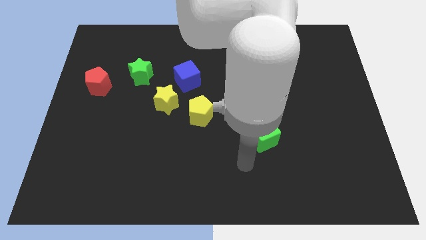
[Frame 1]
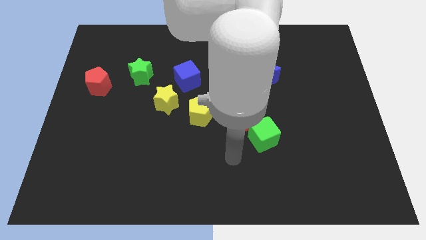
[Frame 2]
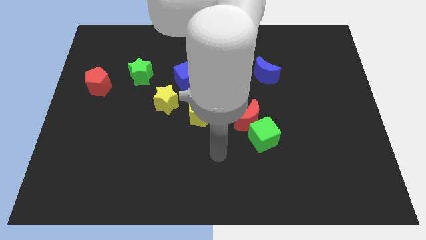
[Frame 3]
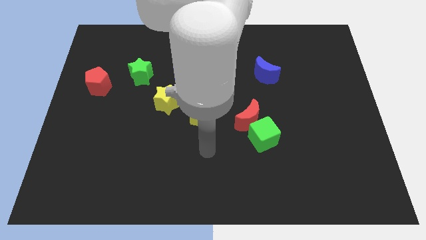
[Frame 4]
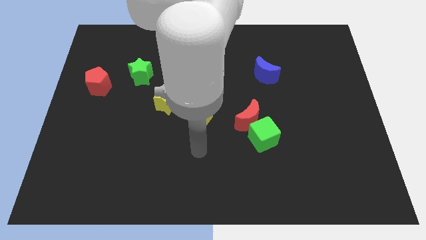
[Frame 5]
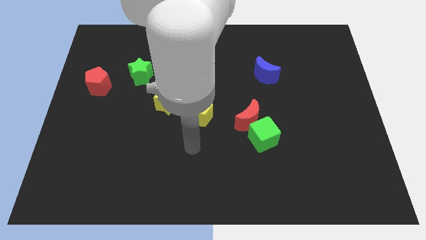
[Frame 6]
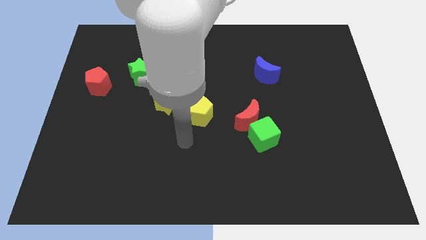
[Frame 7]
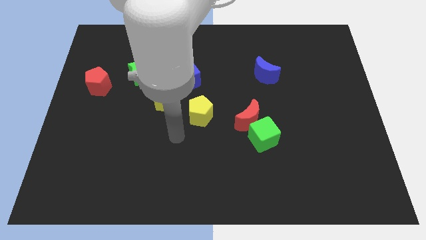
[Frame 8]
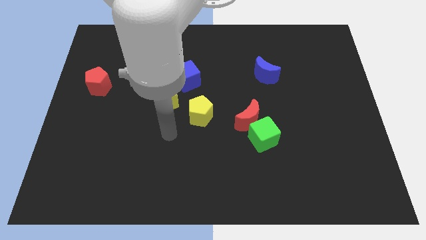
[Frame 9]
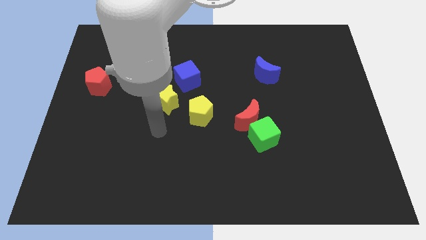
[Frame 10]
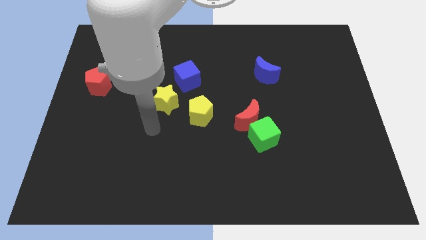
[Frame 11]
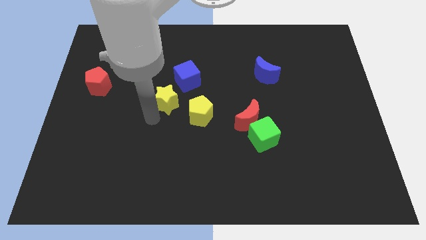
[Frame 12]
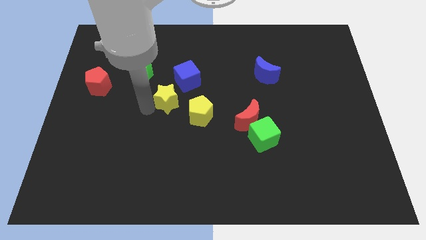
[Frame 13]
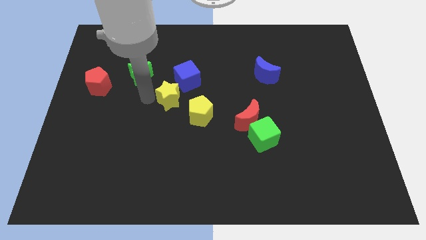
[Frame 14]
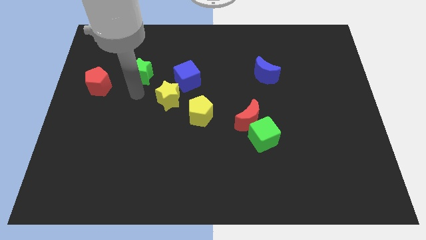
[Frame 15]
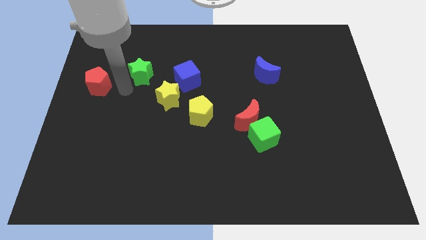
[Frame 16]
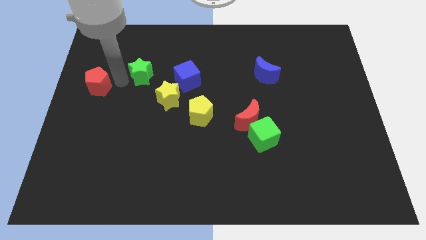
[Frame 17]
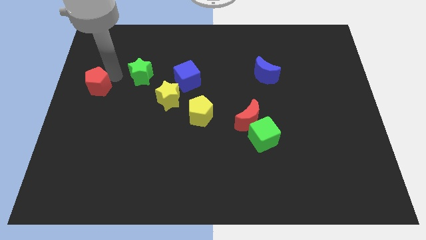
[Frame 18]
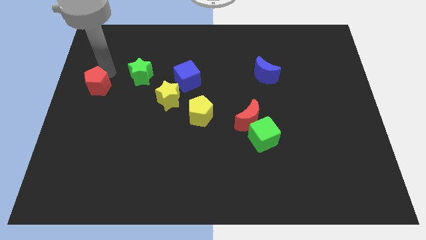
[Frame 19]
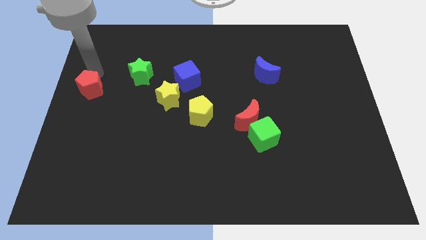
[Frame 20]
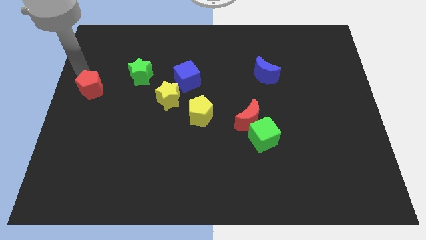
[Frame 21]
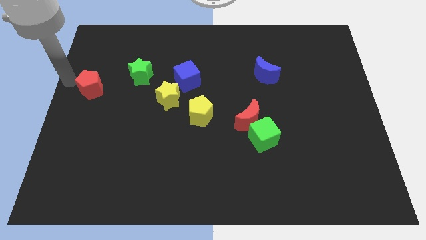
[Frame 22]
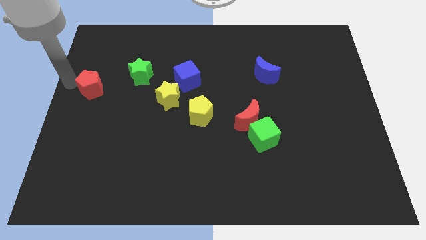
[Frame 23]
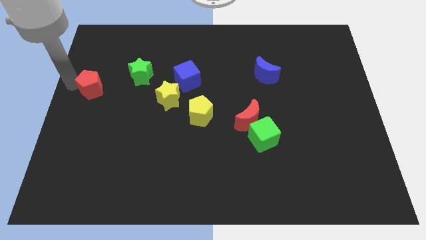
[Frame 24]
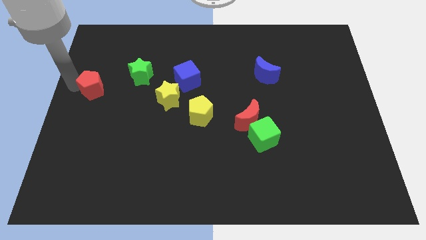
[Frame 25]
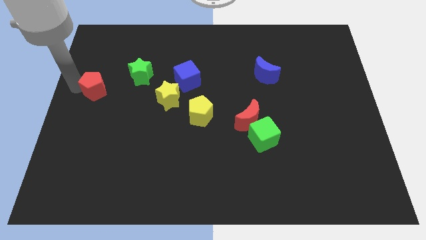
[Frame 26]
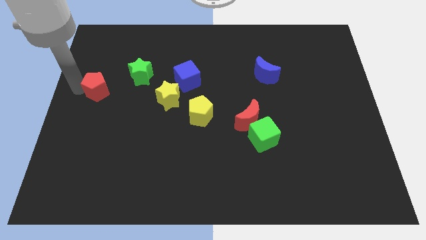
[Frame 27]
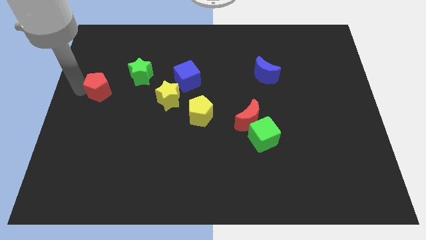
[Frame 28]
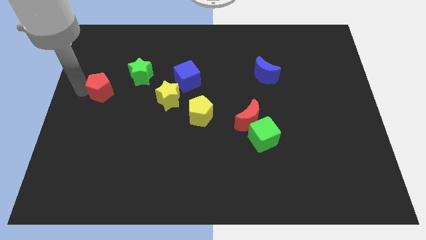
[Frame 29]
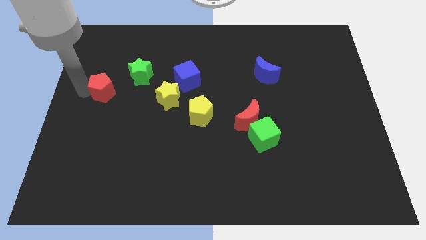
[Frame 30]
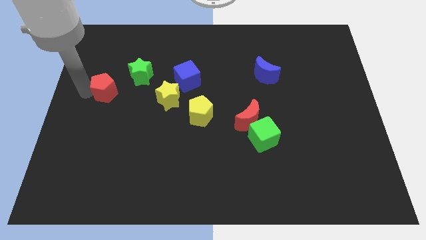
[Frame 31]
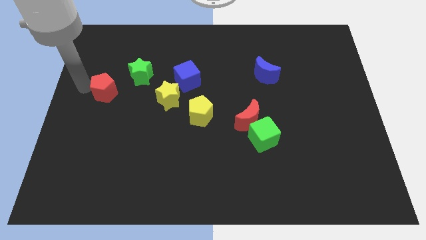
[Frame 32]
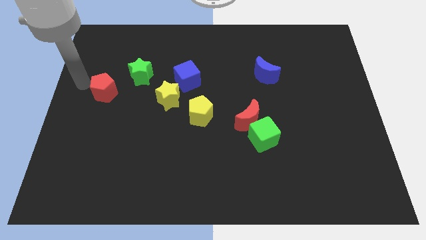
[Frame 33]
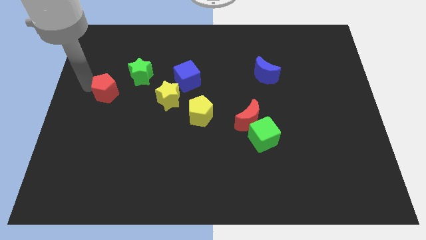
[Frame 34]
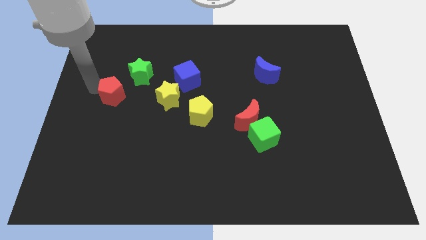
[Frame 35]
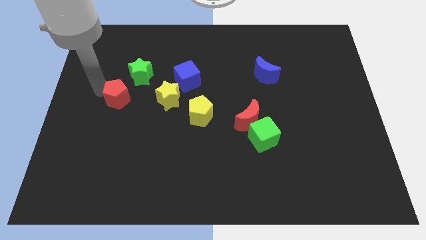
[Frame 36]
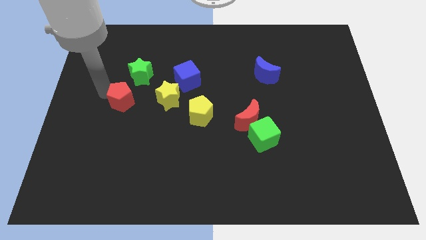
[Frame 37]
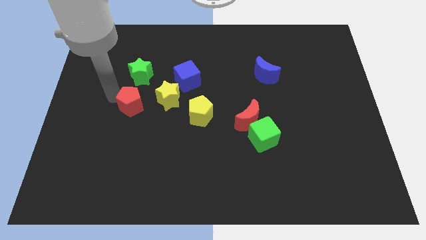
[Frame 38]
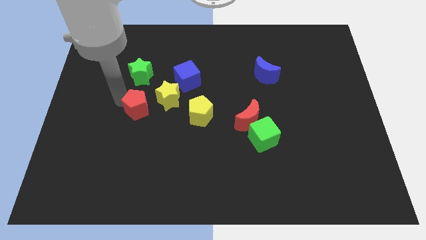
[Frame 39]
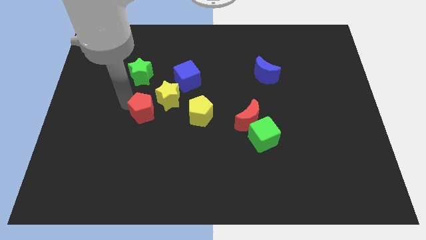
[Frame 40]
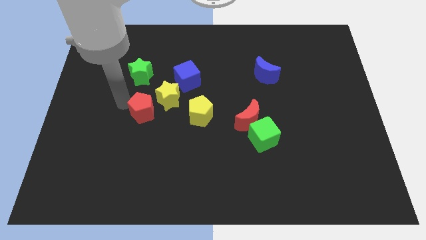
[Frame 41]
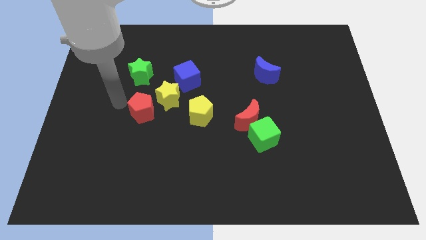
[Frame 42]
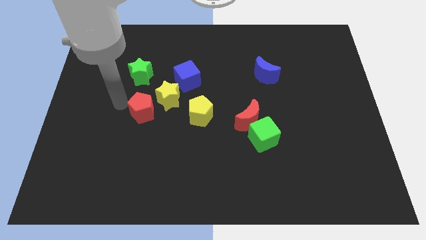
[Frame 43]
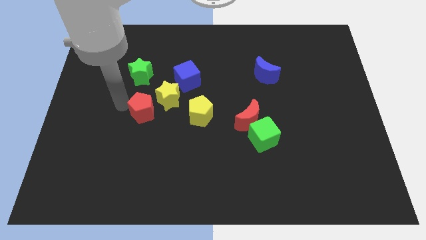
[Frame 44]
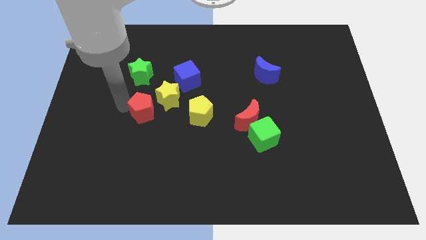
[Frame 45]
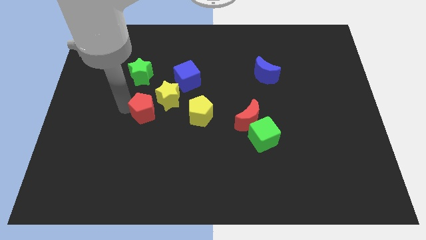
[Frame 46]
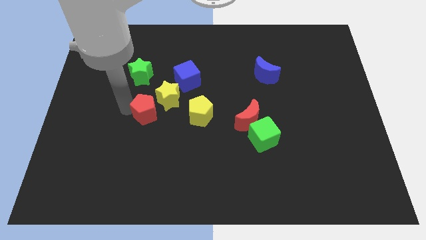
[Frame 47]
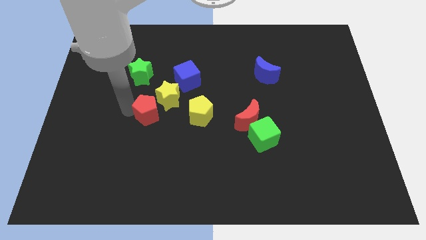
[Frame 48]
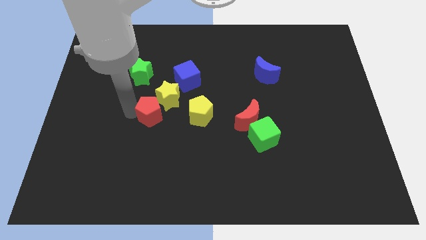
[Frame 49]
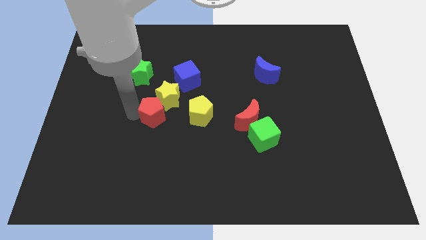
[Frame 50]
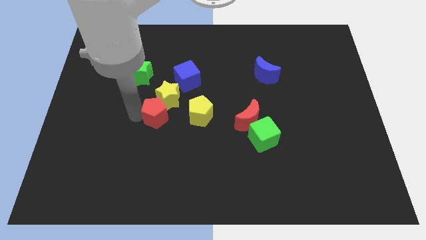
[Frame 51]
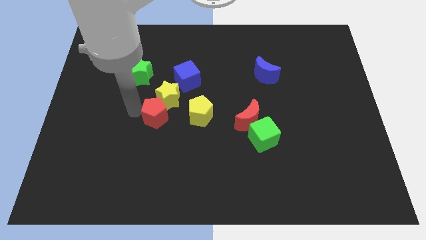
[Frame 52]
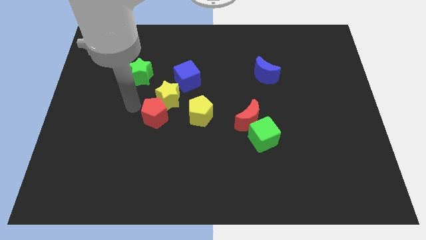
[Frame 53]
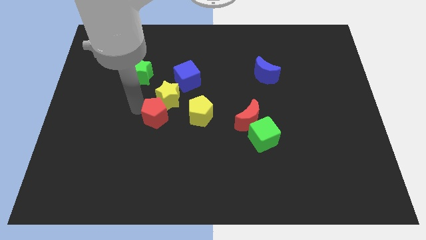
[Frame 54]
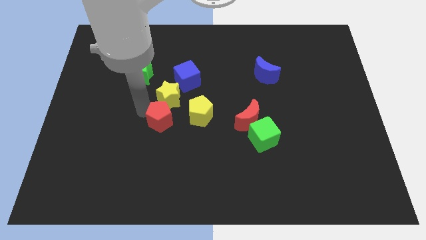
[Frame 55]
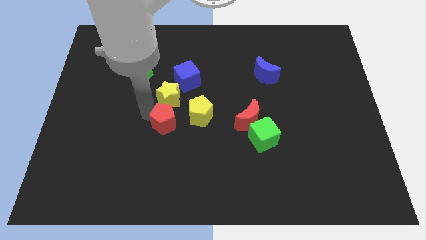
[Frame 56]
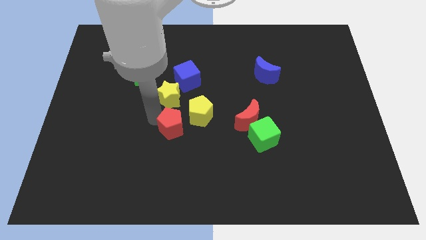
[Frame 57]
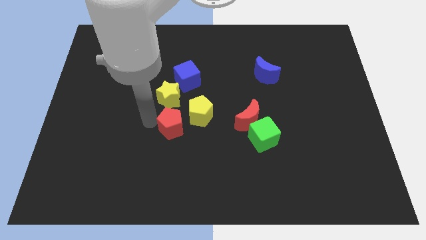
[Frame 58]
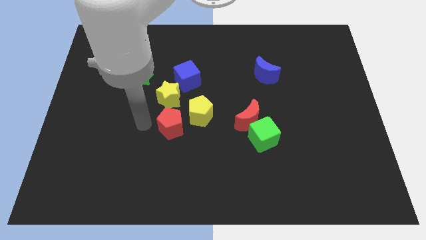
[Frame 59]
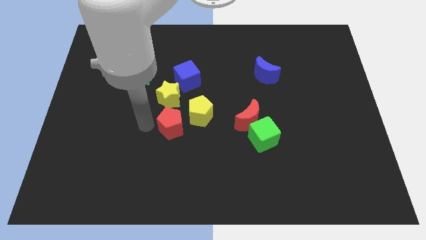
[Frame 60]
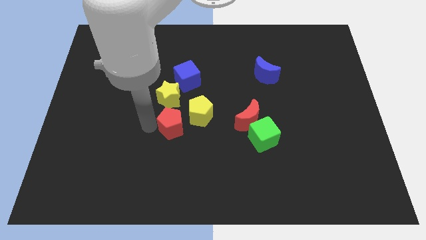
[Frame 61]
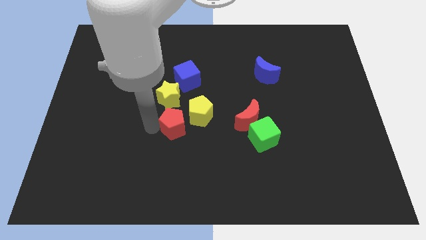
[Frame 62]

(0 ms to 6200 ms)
put the red pentagon to the bottom right of the yellow star
